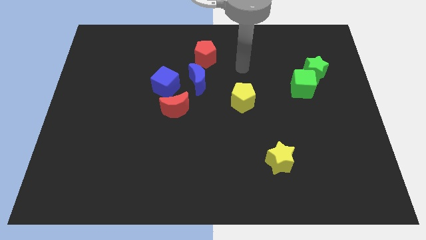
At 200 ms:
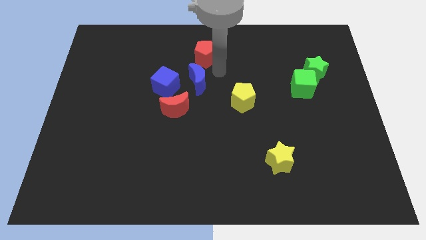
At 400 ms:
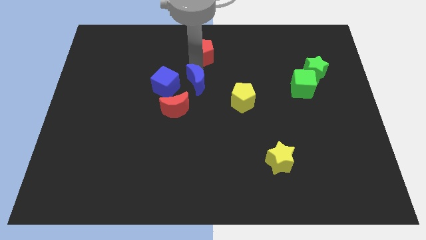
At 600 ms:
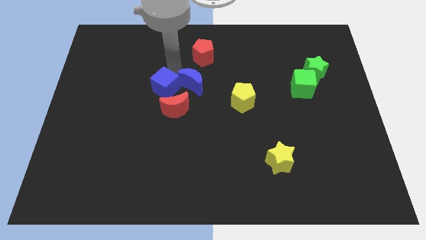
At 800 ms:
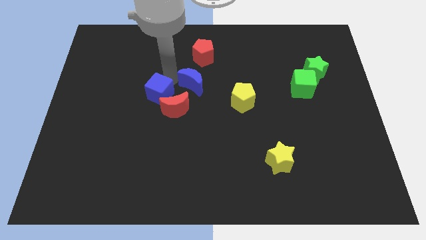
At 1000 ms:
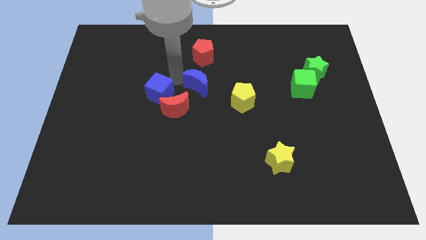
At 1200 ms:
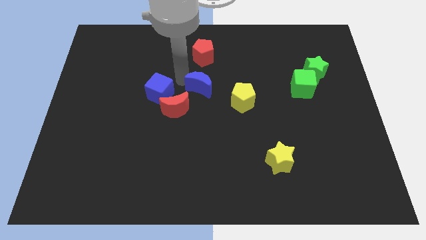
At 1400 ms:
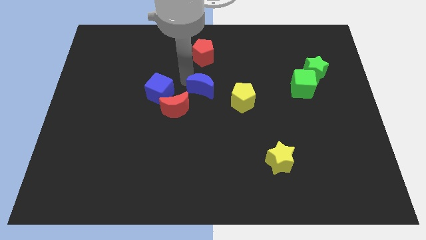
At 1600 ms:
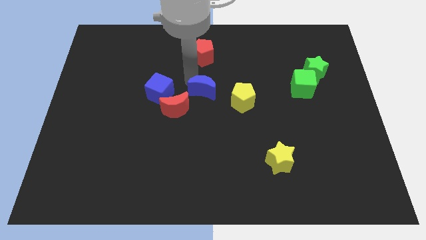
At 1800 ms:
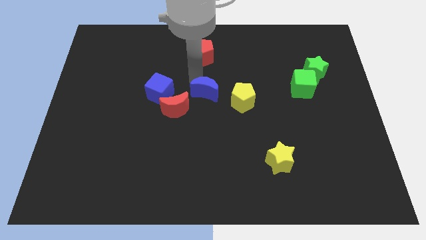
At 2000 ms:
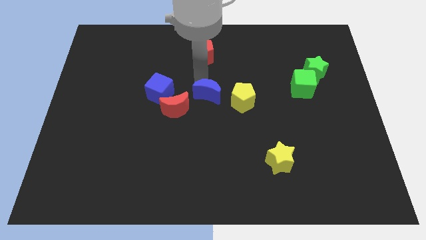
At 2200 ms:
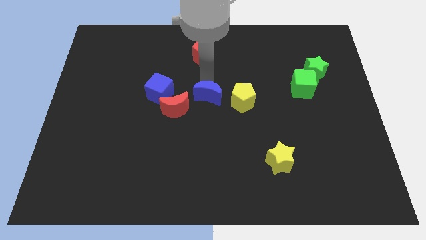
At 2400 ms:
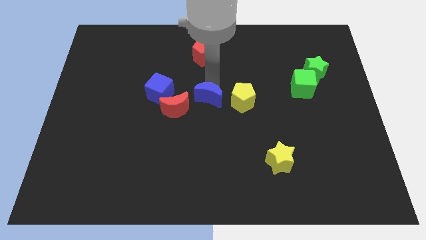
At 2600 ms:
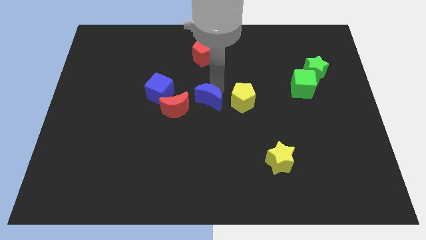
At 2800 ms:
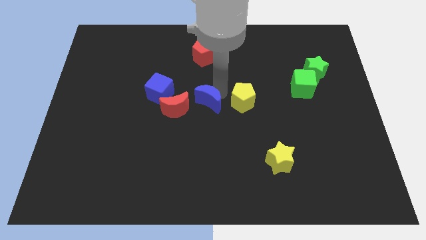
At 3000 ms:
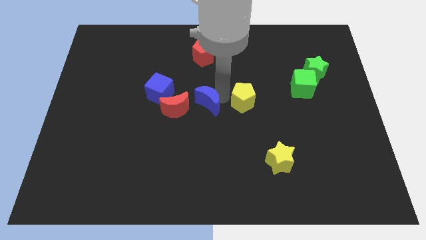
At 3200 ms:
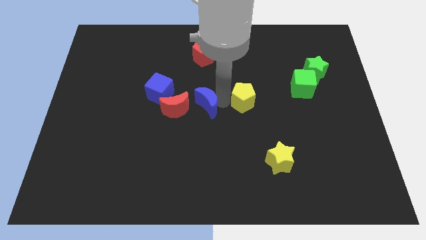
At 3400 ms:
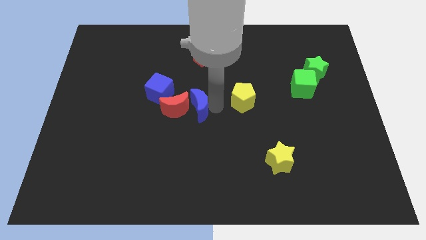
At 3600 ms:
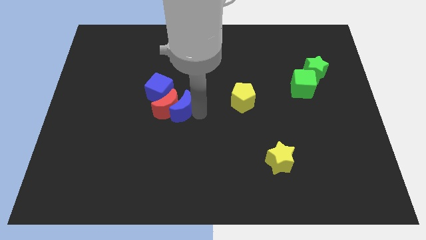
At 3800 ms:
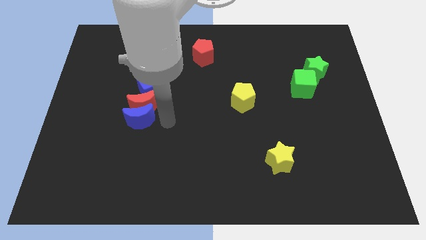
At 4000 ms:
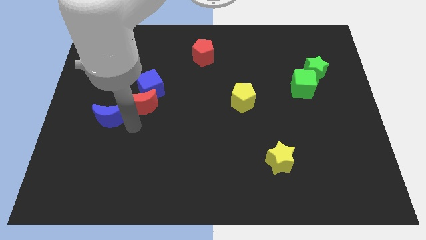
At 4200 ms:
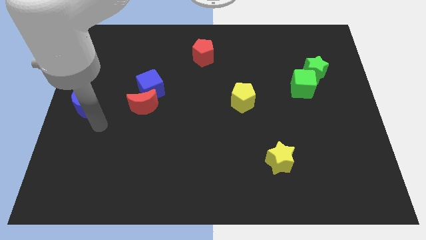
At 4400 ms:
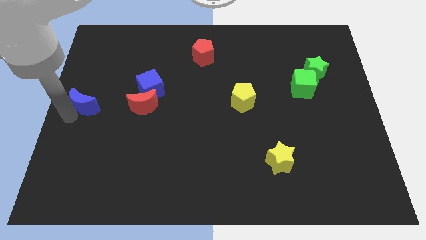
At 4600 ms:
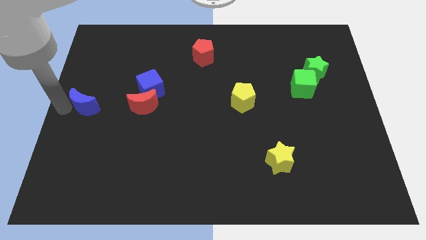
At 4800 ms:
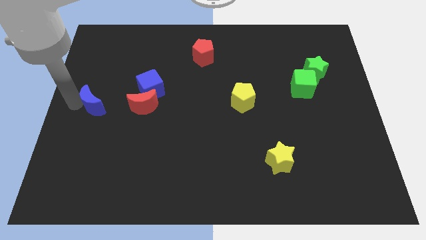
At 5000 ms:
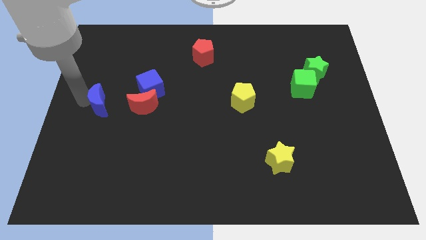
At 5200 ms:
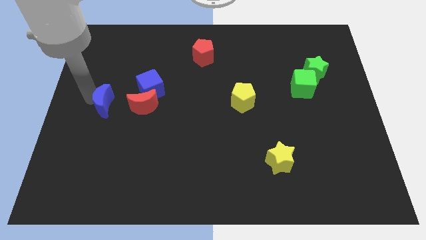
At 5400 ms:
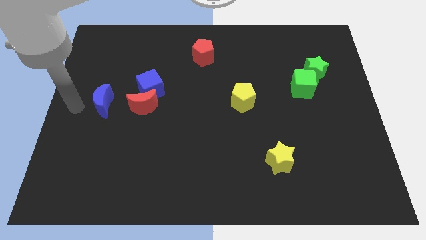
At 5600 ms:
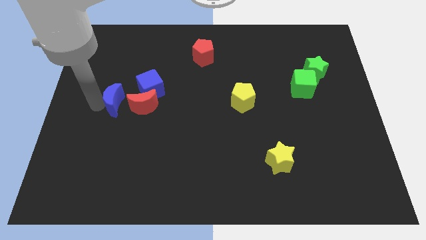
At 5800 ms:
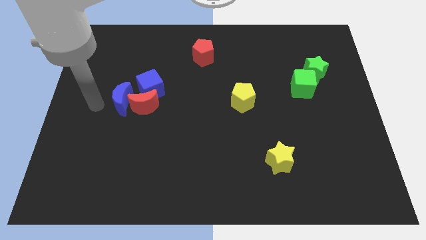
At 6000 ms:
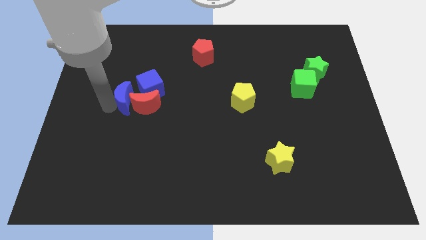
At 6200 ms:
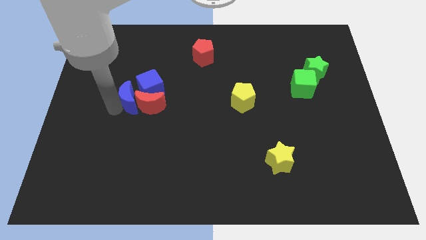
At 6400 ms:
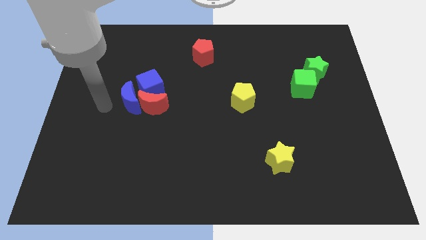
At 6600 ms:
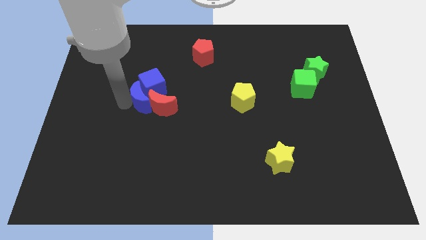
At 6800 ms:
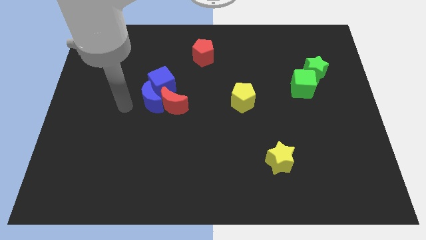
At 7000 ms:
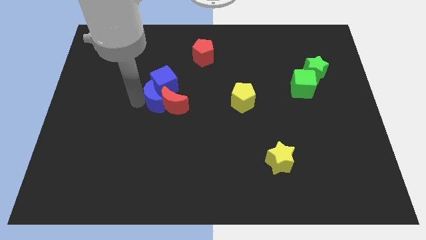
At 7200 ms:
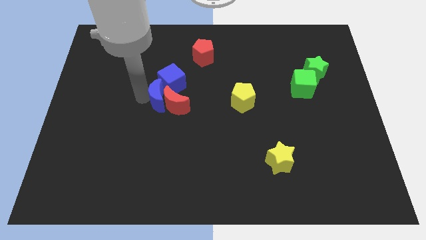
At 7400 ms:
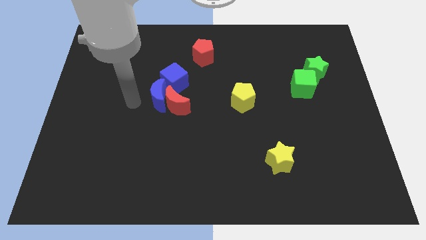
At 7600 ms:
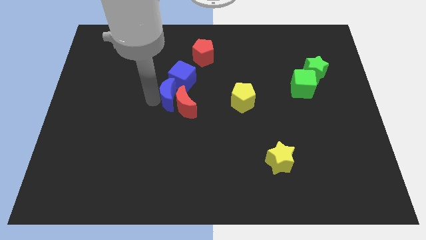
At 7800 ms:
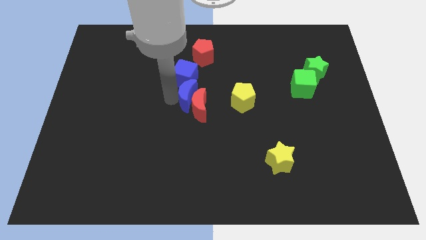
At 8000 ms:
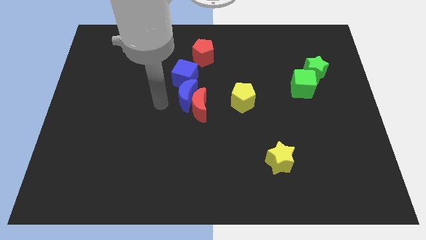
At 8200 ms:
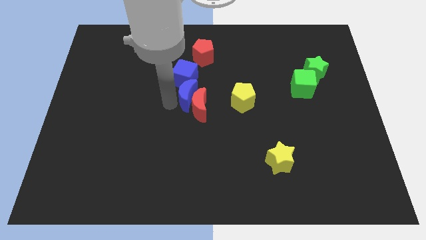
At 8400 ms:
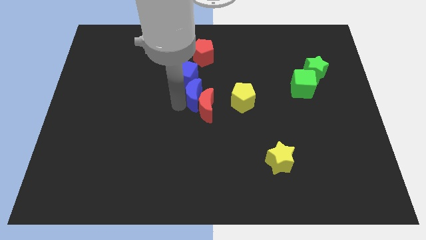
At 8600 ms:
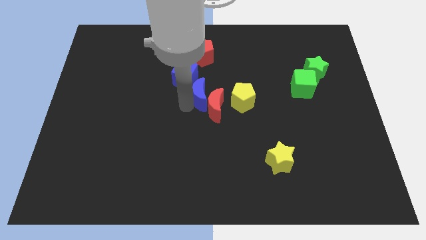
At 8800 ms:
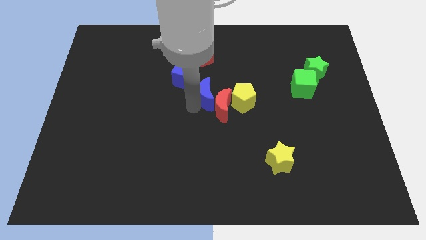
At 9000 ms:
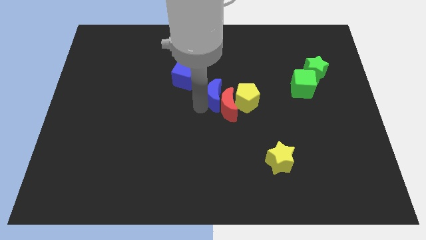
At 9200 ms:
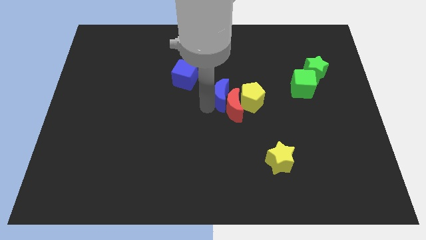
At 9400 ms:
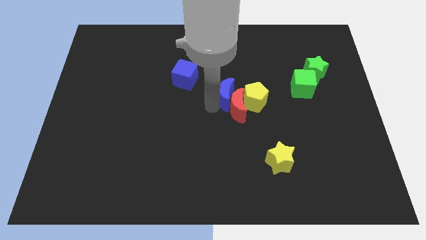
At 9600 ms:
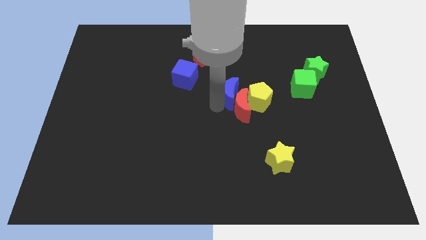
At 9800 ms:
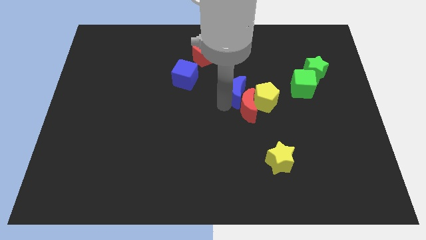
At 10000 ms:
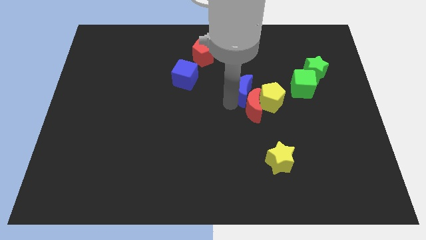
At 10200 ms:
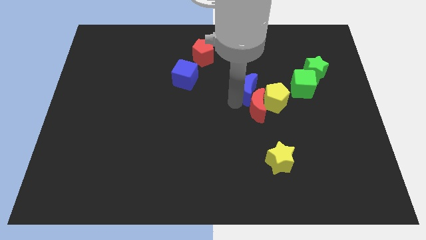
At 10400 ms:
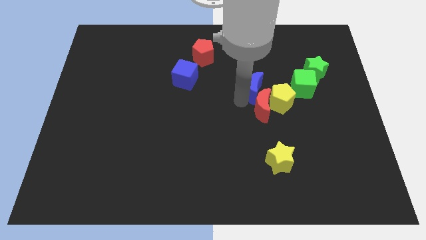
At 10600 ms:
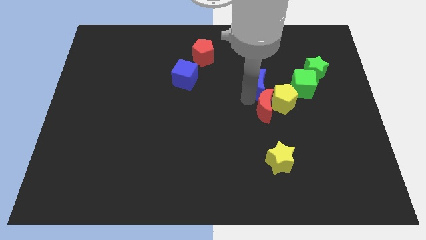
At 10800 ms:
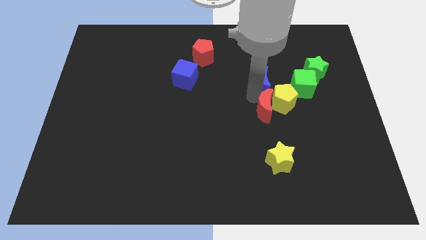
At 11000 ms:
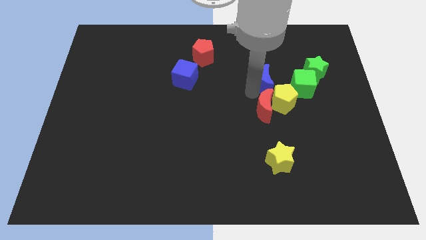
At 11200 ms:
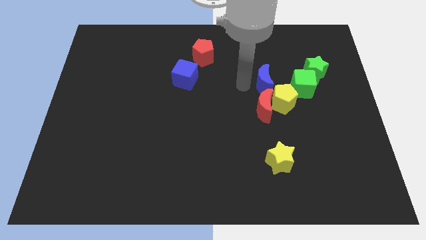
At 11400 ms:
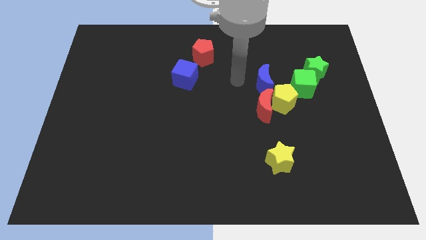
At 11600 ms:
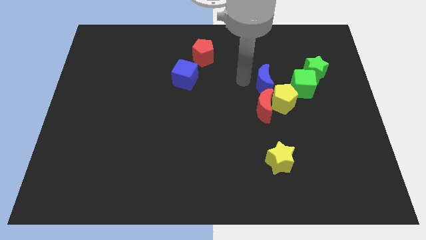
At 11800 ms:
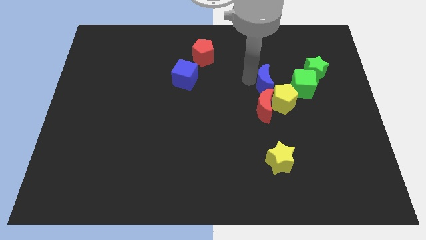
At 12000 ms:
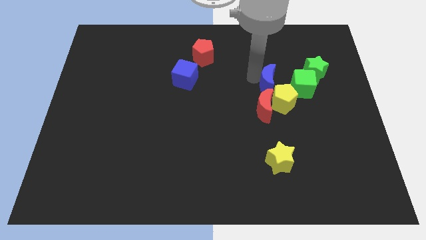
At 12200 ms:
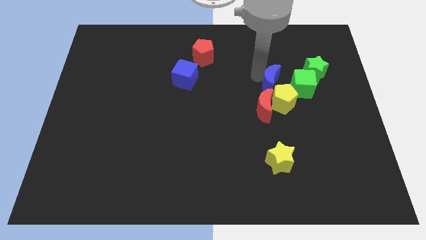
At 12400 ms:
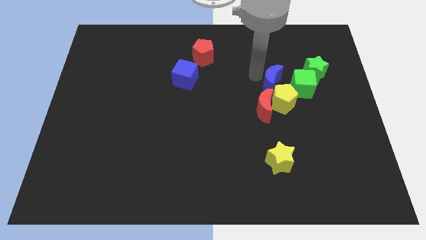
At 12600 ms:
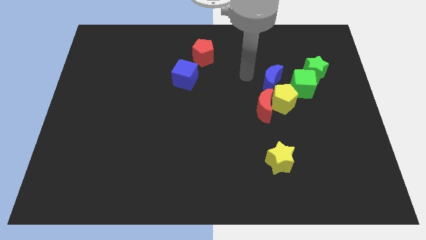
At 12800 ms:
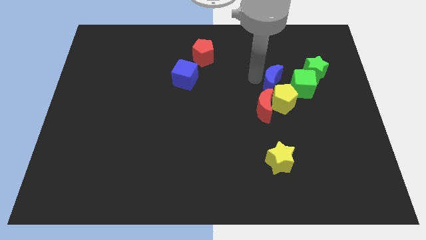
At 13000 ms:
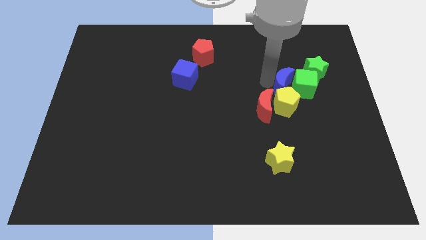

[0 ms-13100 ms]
push the blue moon towards the green cube

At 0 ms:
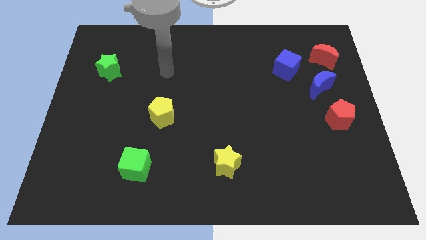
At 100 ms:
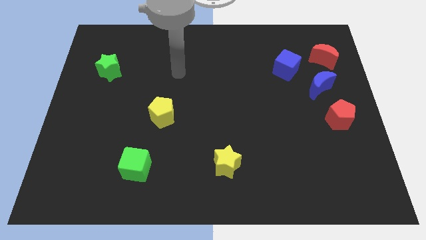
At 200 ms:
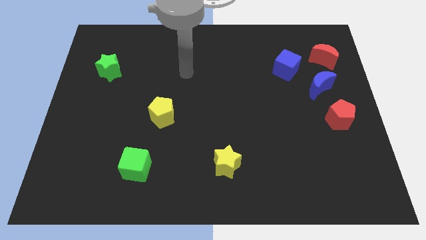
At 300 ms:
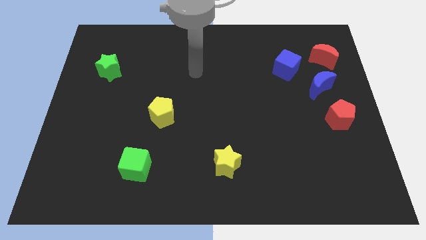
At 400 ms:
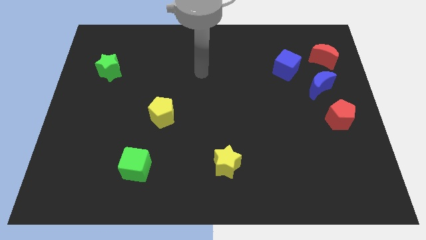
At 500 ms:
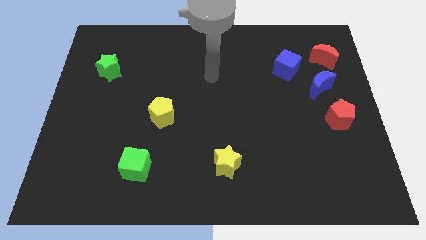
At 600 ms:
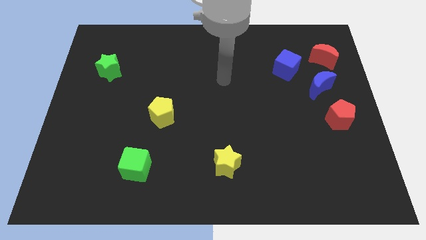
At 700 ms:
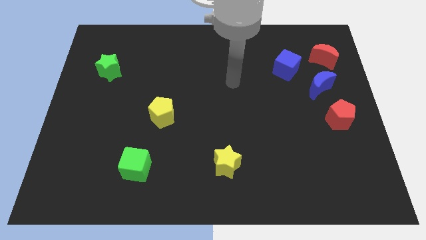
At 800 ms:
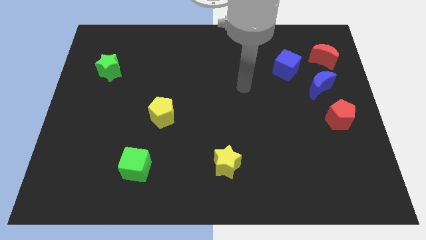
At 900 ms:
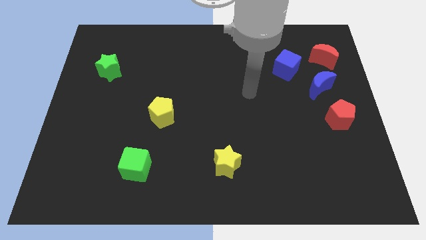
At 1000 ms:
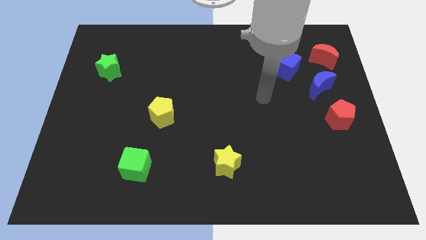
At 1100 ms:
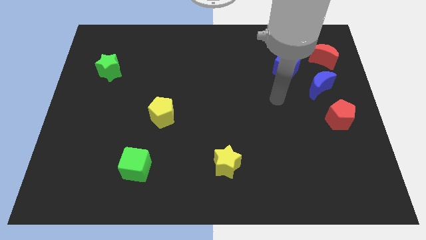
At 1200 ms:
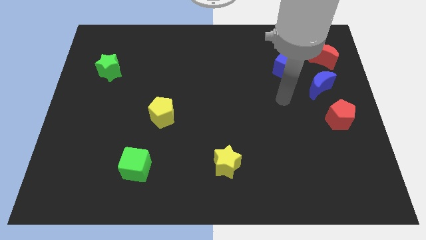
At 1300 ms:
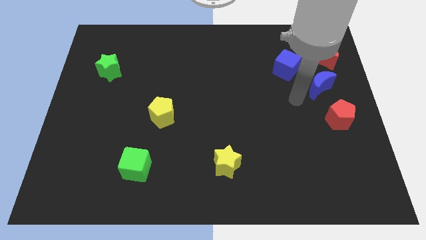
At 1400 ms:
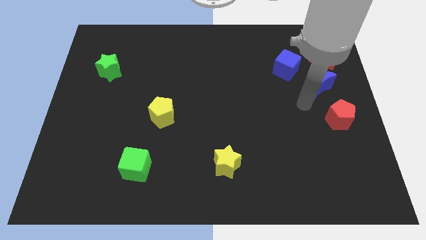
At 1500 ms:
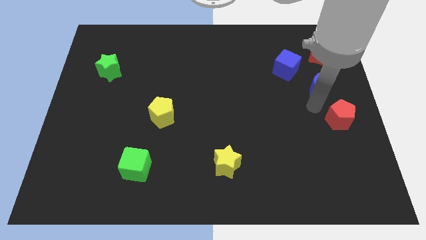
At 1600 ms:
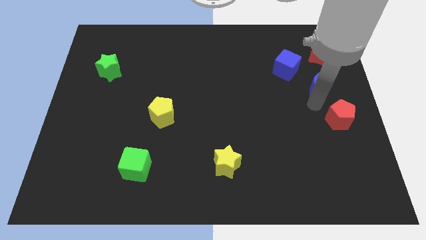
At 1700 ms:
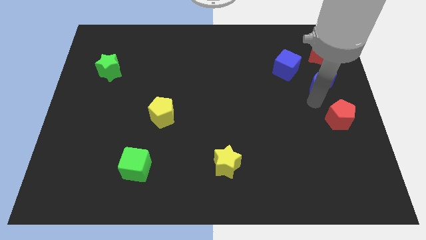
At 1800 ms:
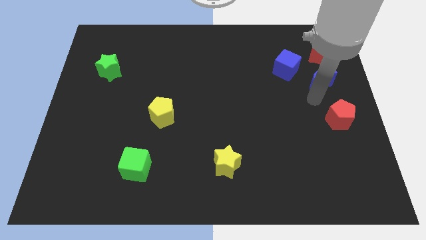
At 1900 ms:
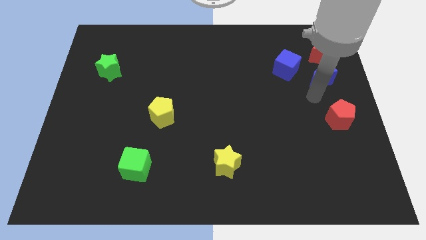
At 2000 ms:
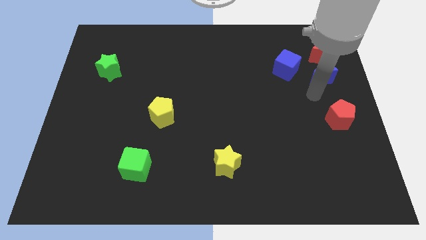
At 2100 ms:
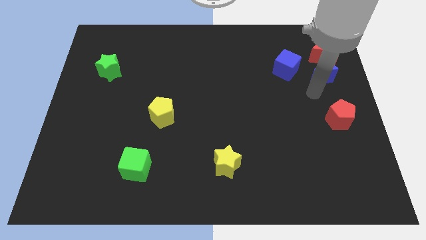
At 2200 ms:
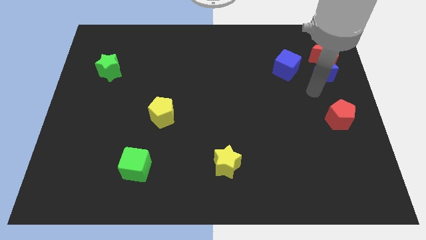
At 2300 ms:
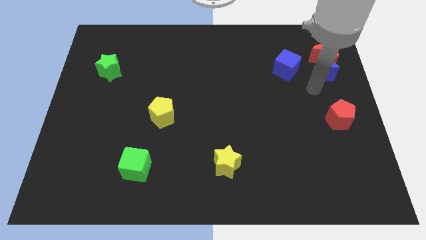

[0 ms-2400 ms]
move the blue moon to the red moon
